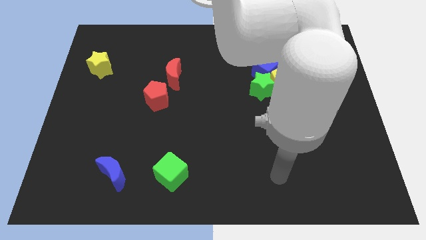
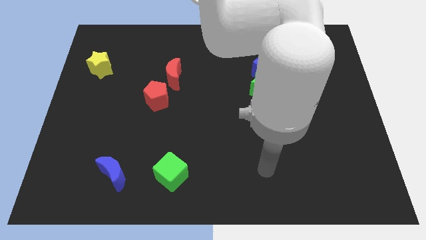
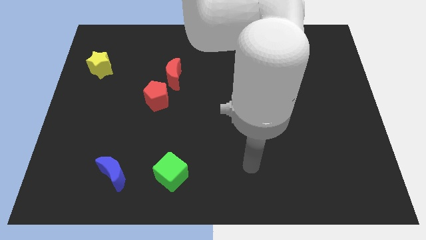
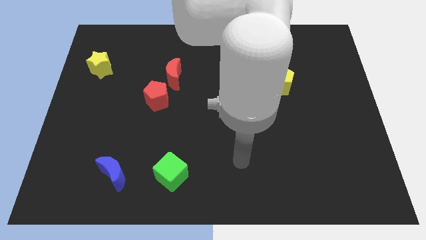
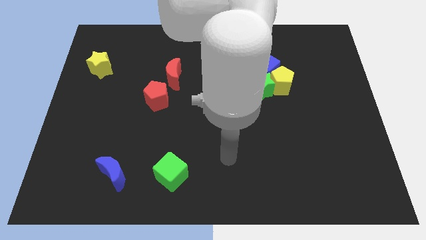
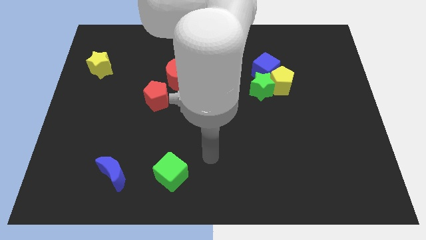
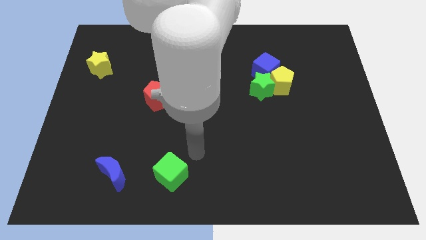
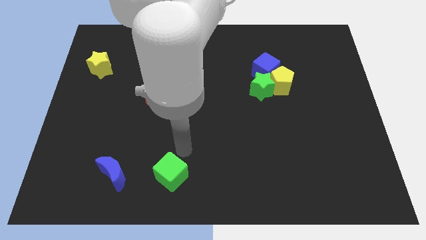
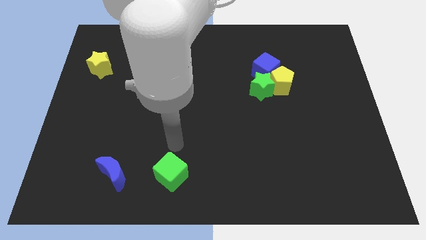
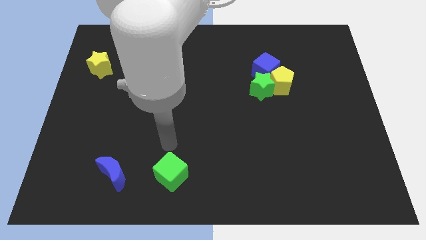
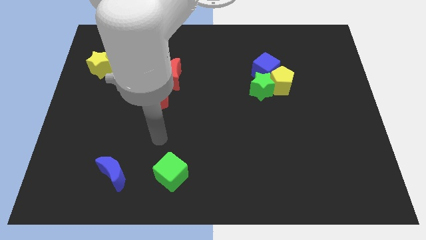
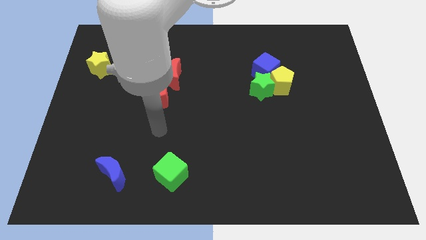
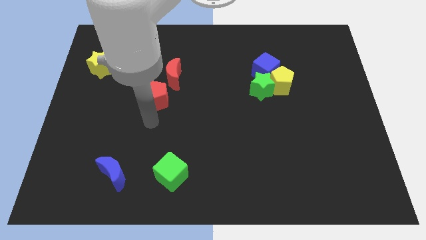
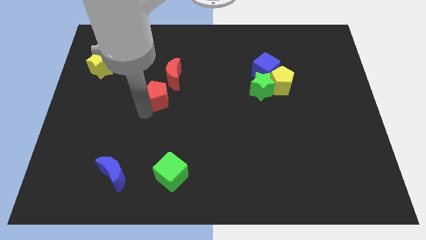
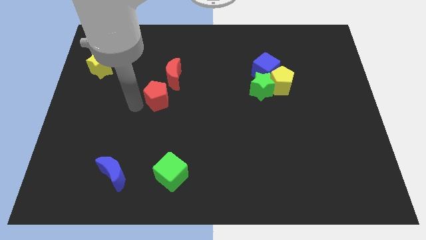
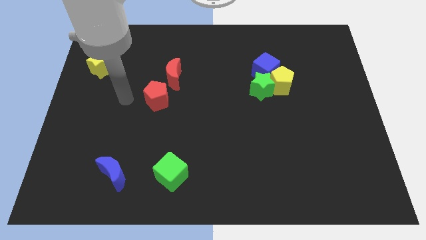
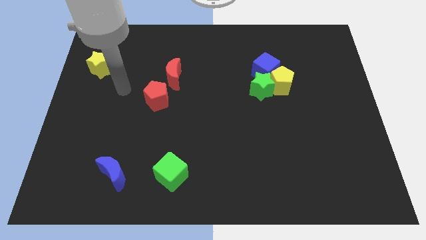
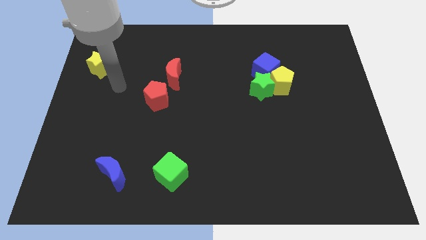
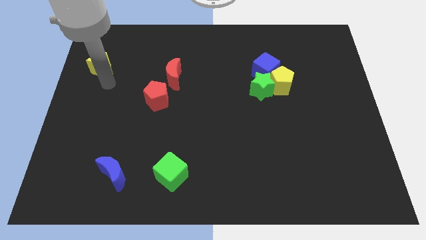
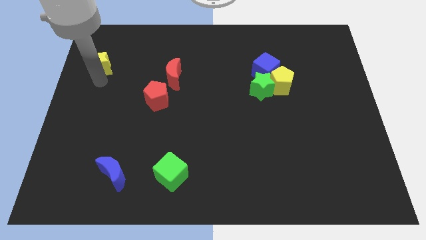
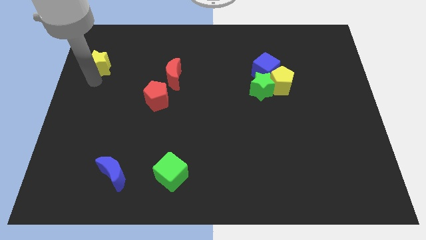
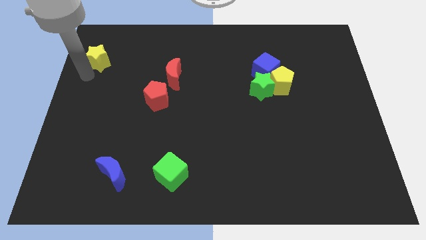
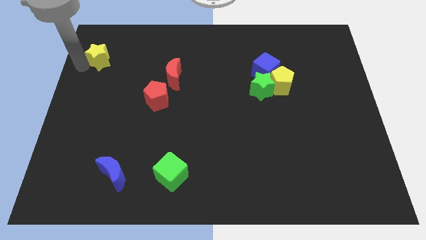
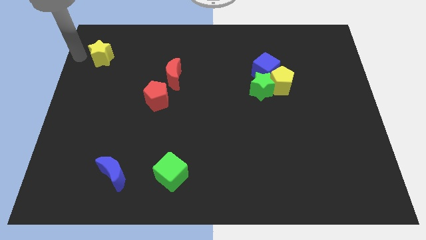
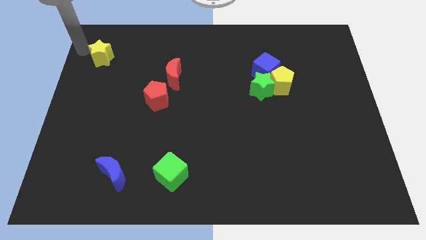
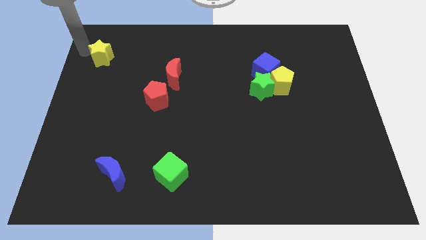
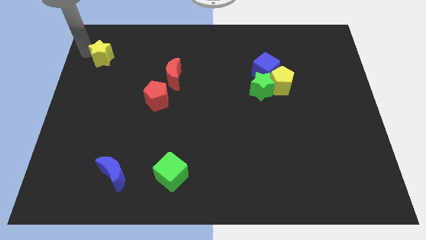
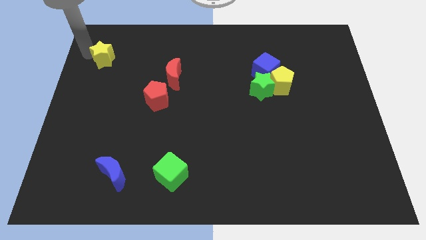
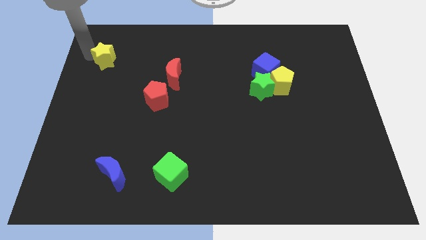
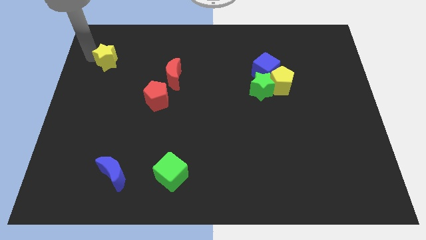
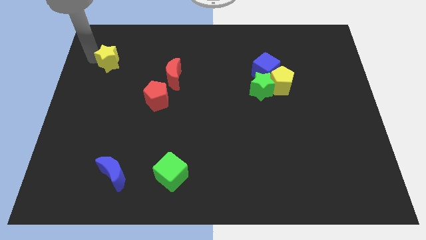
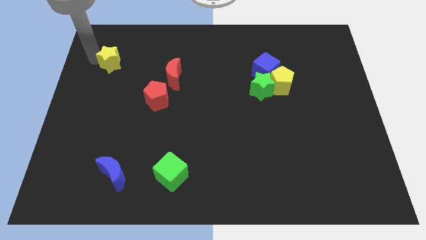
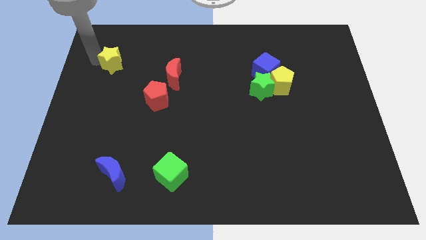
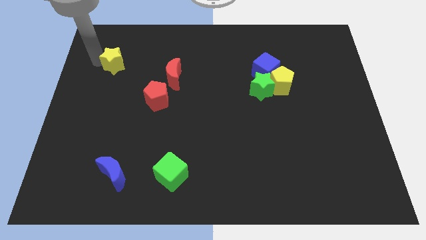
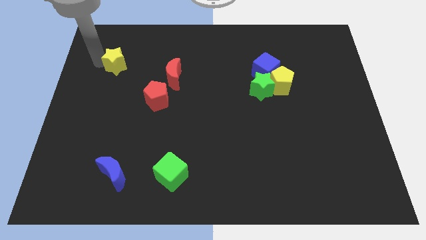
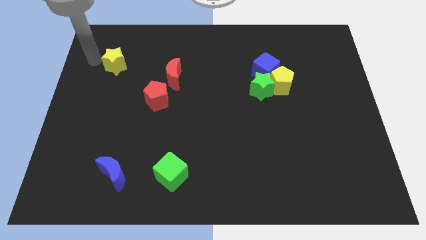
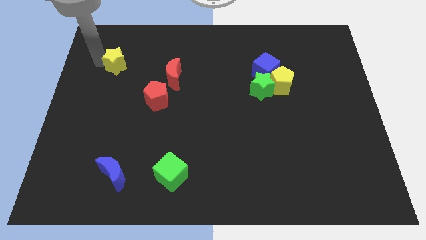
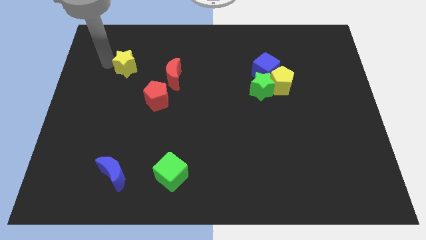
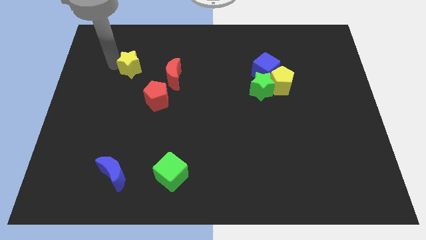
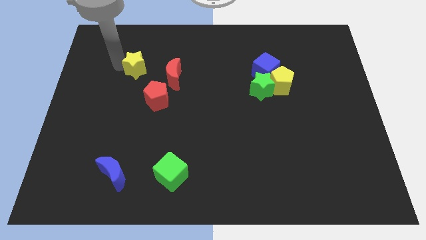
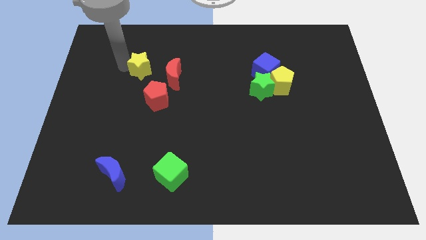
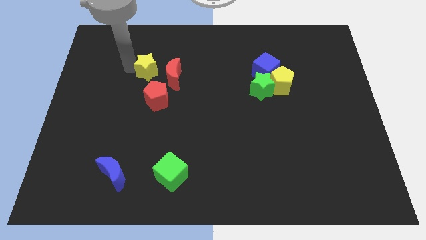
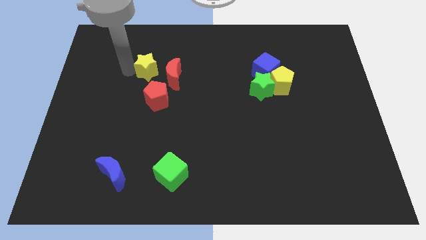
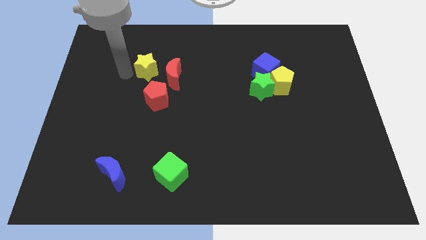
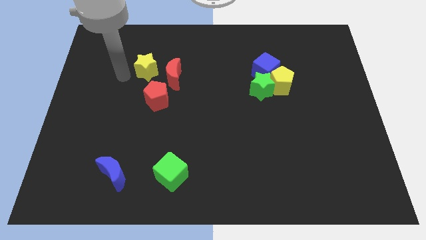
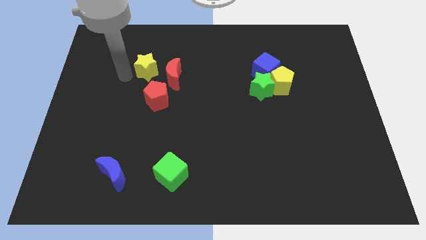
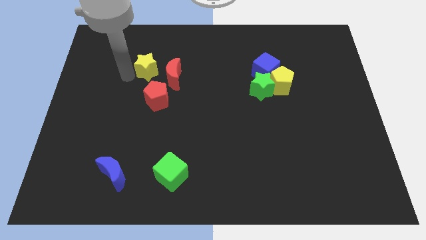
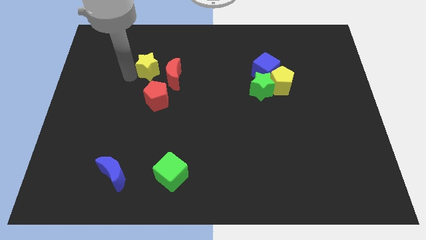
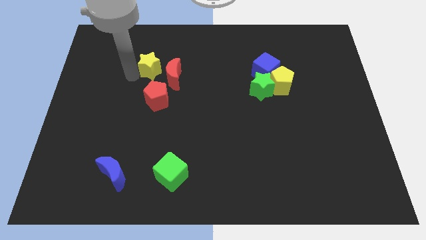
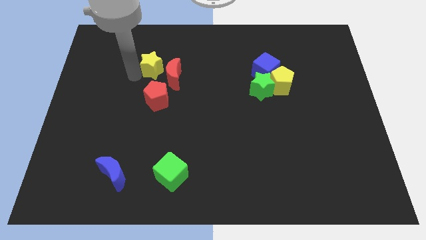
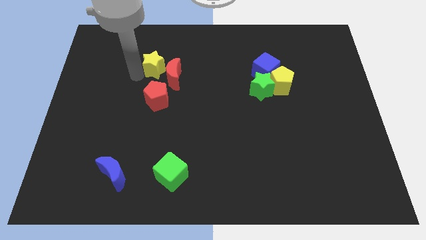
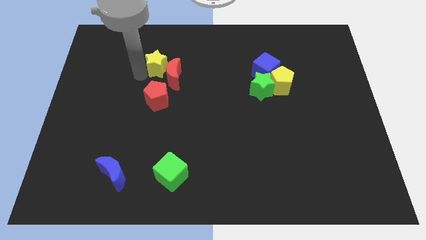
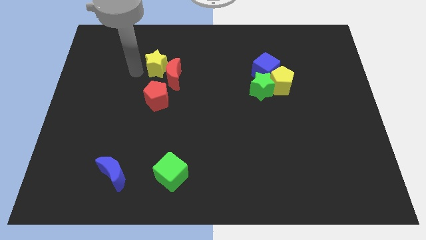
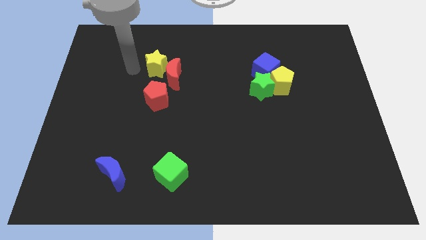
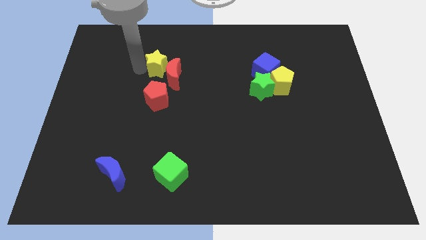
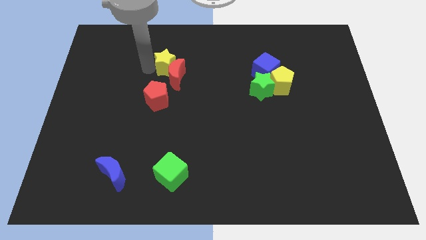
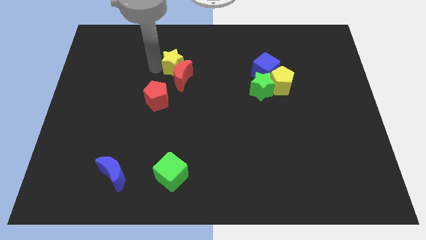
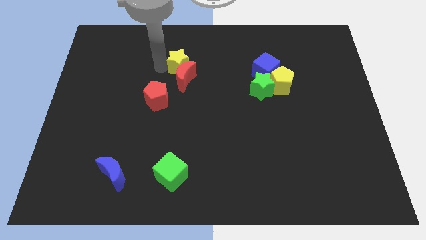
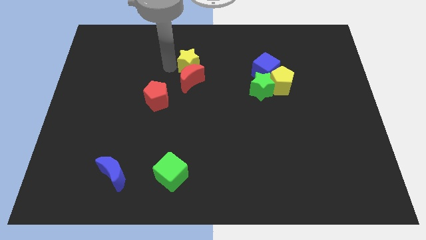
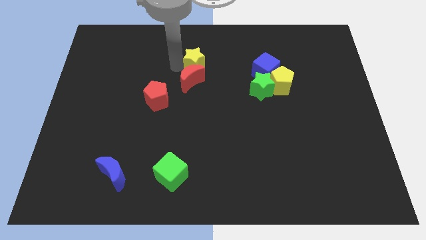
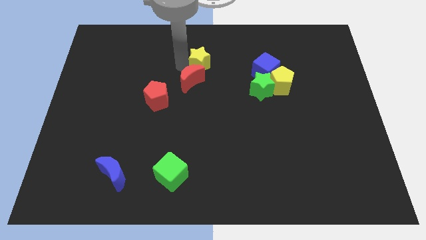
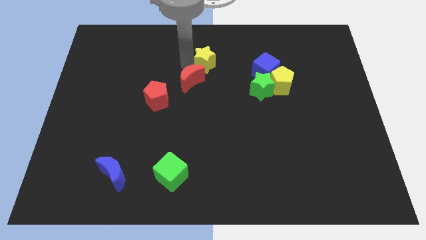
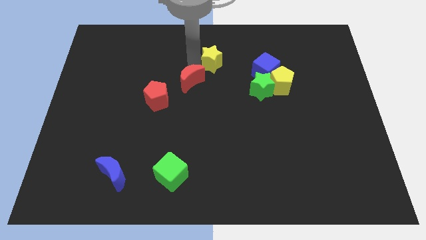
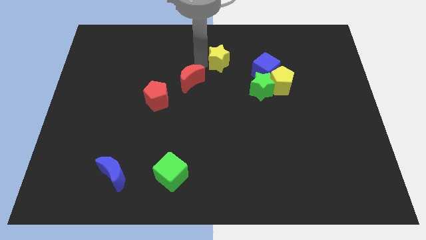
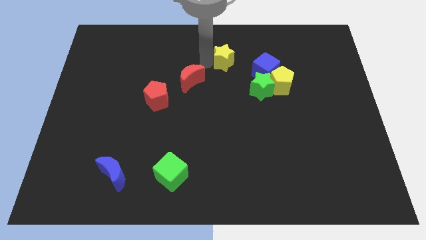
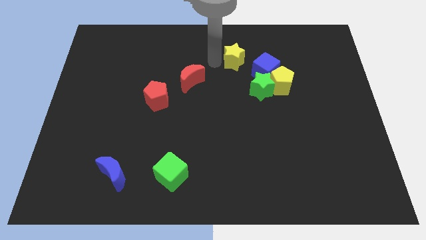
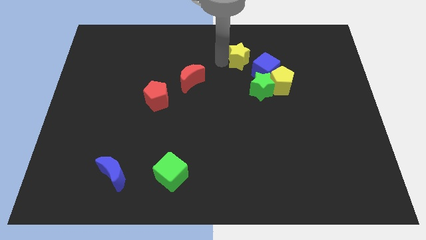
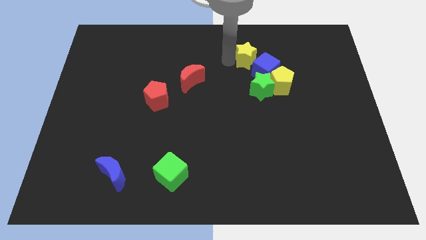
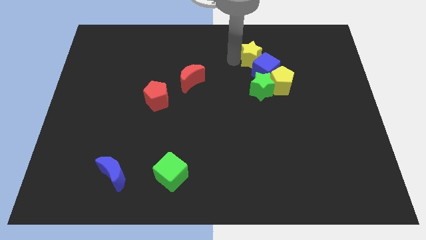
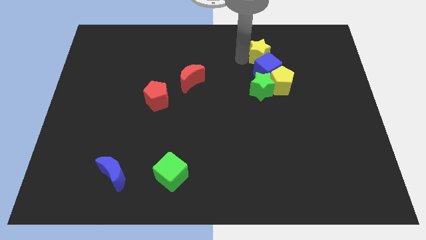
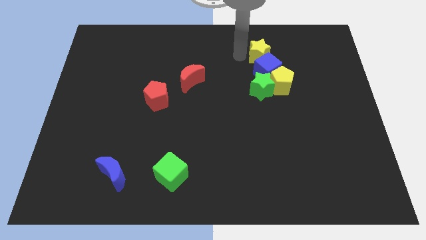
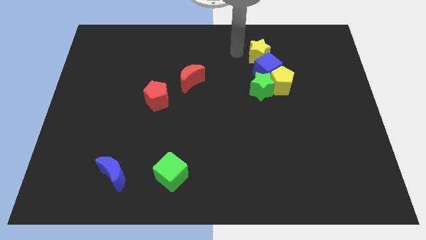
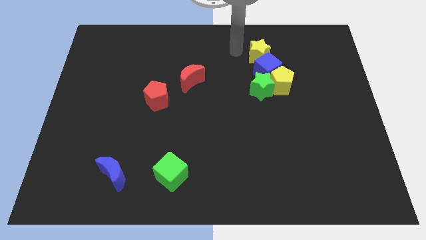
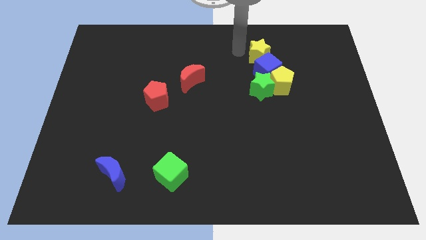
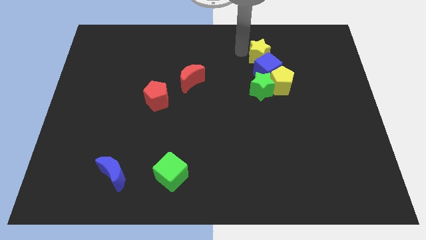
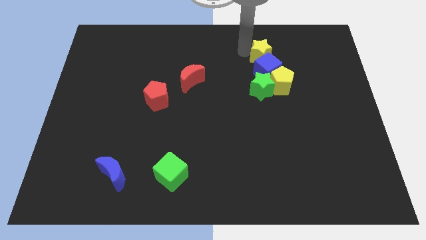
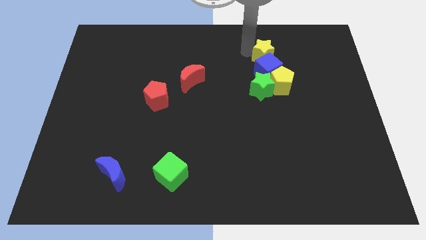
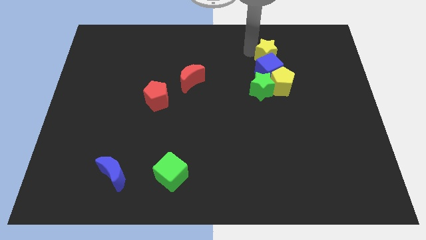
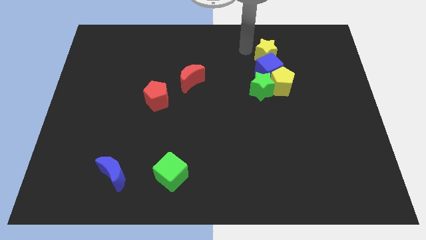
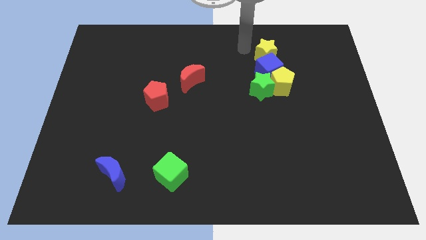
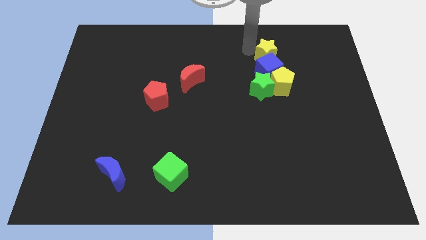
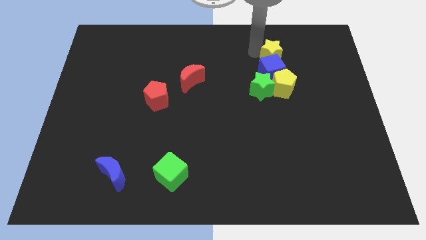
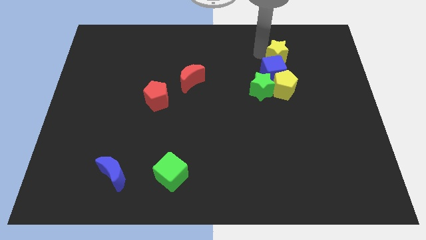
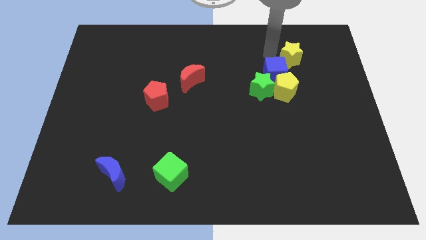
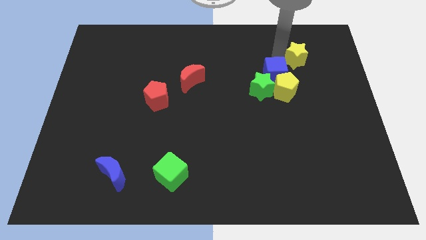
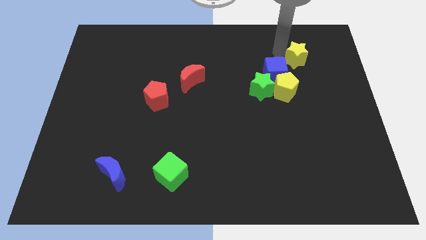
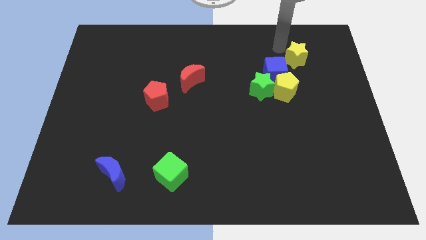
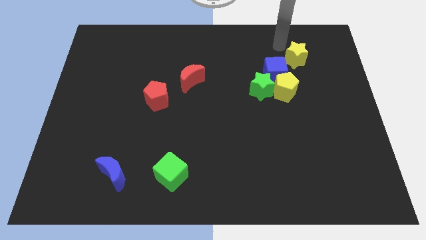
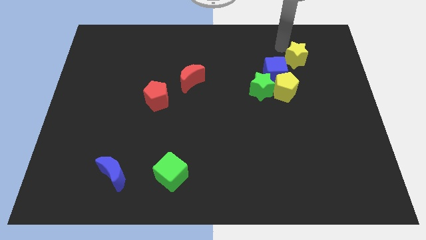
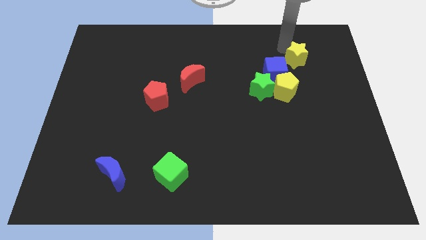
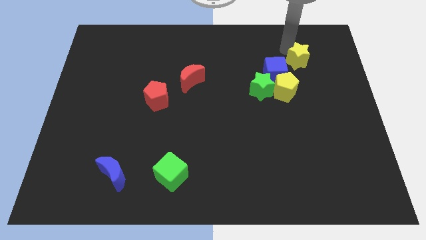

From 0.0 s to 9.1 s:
slide the yellow star just right of the blue cube
